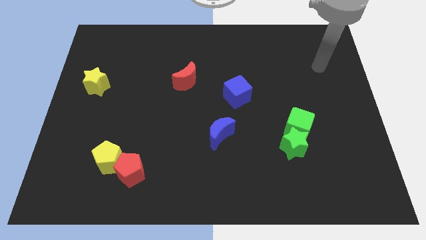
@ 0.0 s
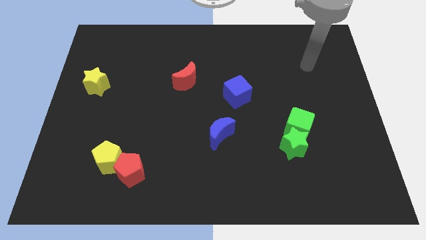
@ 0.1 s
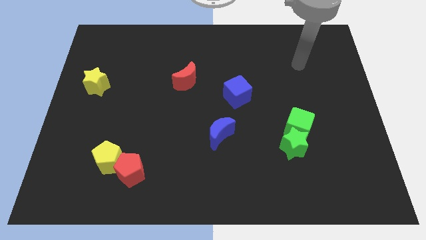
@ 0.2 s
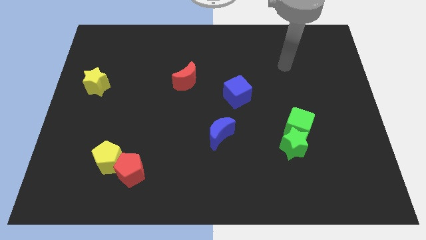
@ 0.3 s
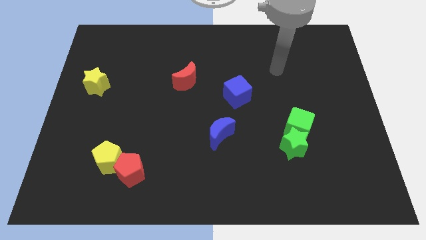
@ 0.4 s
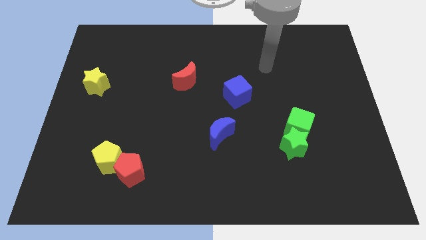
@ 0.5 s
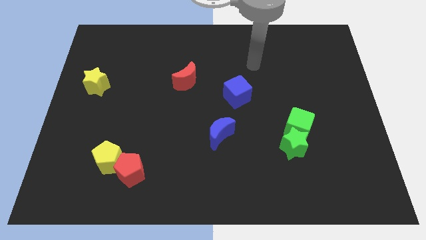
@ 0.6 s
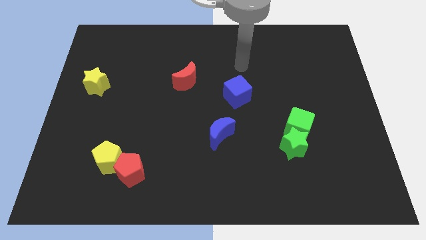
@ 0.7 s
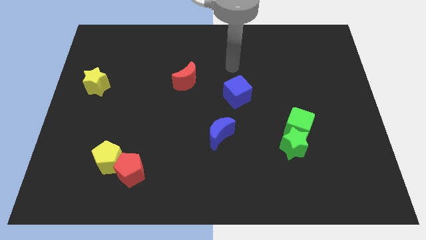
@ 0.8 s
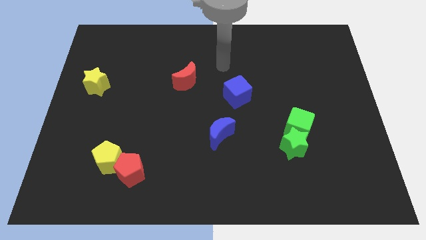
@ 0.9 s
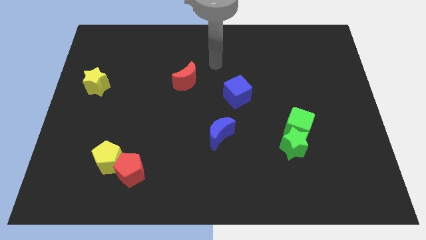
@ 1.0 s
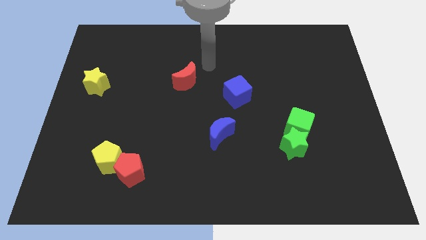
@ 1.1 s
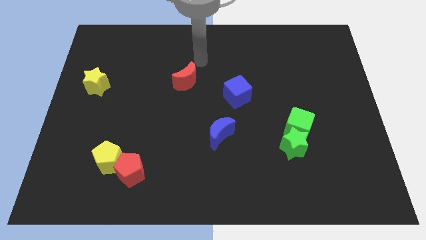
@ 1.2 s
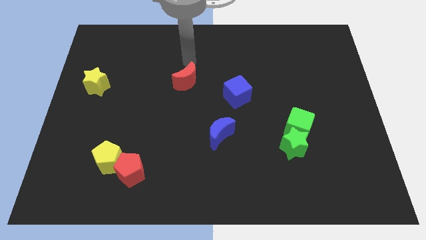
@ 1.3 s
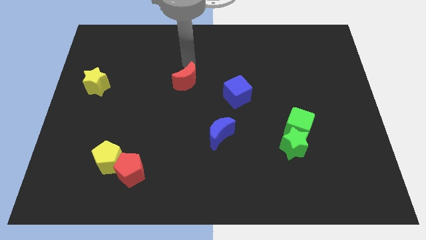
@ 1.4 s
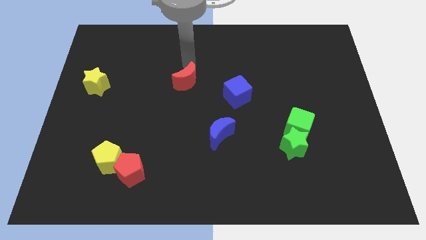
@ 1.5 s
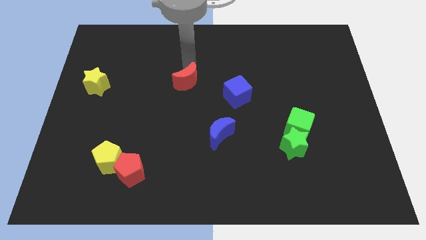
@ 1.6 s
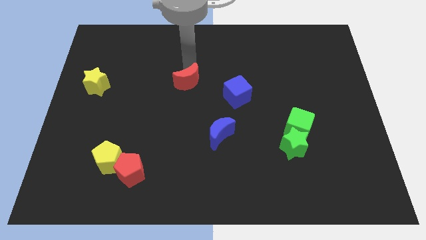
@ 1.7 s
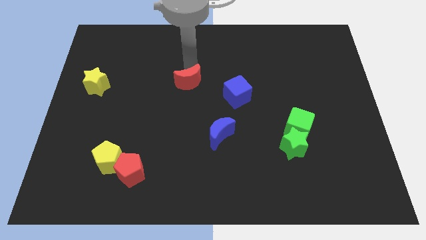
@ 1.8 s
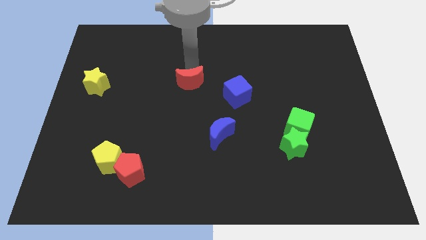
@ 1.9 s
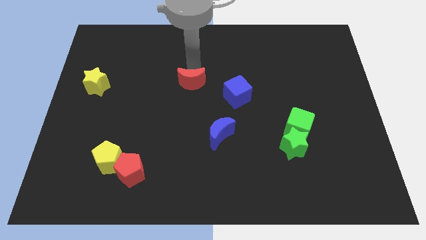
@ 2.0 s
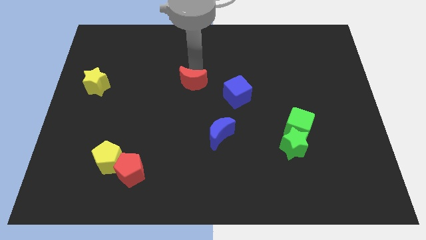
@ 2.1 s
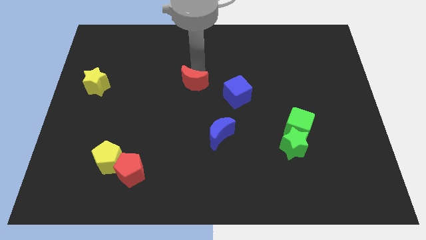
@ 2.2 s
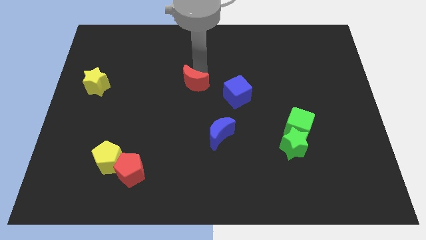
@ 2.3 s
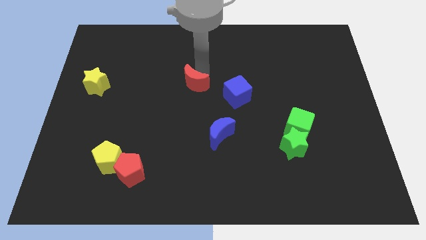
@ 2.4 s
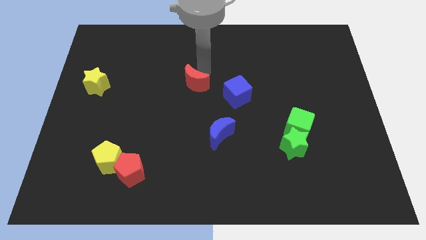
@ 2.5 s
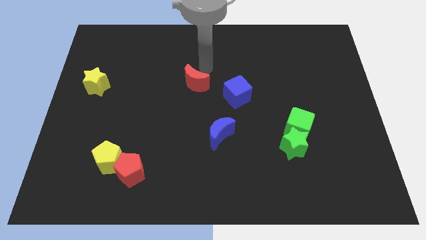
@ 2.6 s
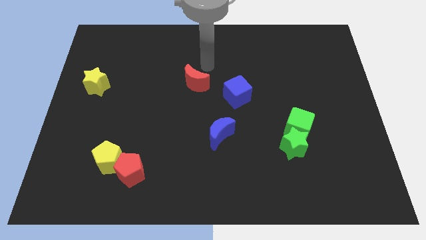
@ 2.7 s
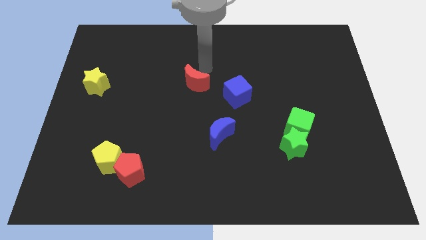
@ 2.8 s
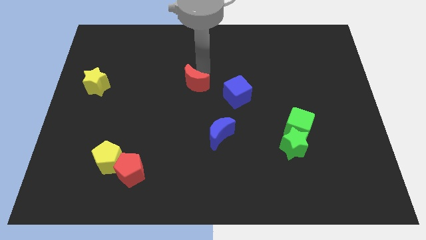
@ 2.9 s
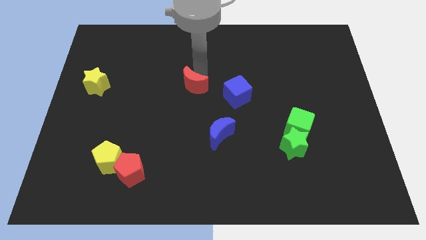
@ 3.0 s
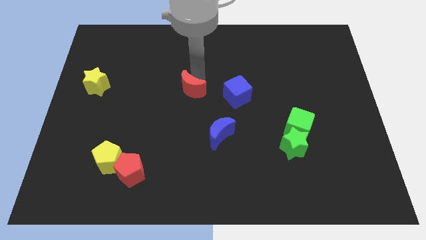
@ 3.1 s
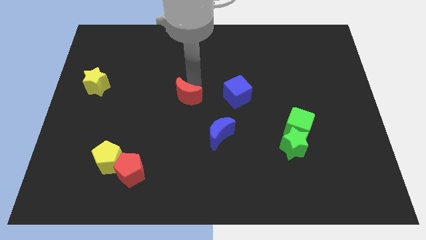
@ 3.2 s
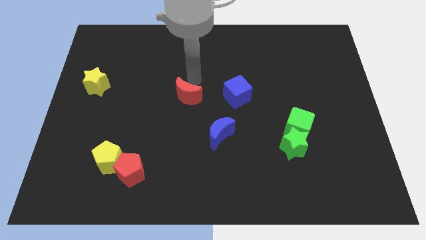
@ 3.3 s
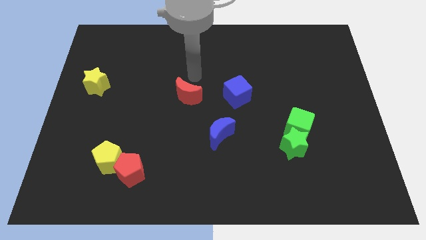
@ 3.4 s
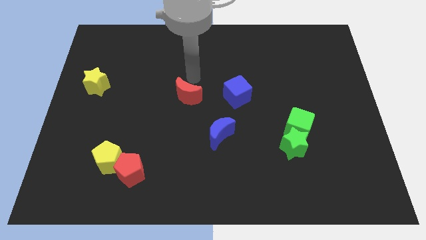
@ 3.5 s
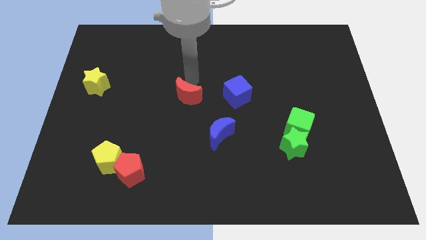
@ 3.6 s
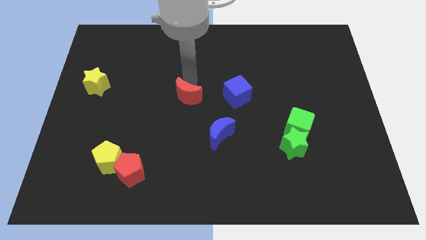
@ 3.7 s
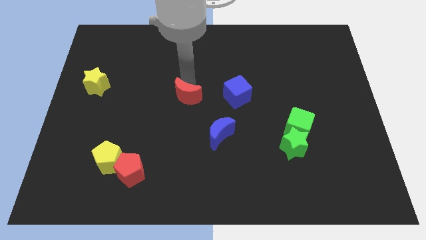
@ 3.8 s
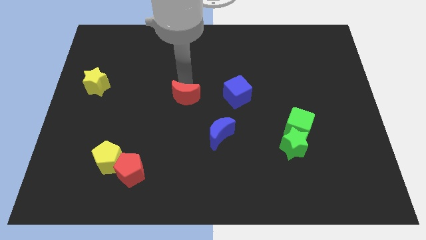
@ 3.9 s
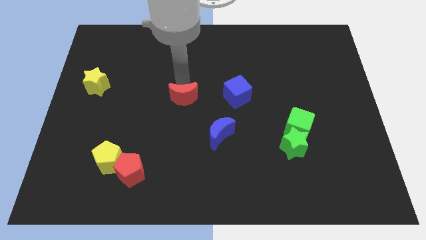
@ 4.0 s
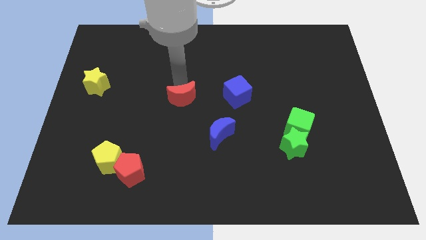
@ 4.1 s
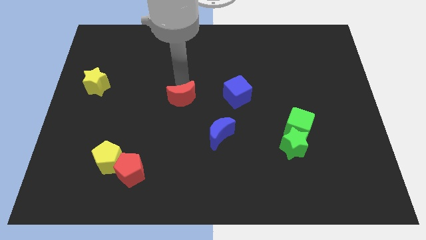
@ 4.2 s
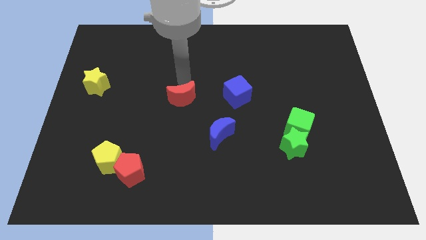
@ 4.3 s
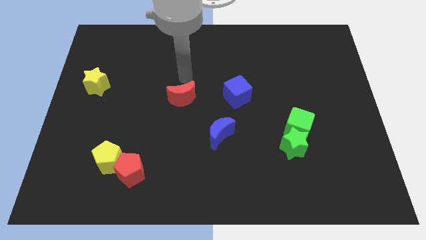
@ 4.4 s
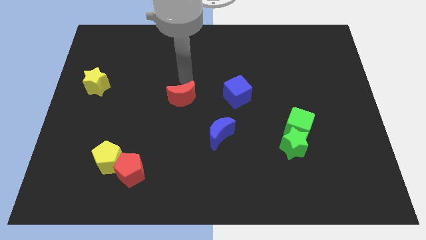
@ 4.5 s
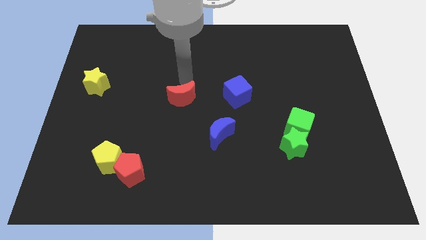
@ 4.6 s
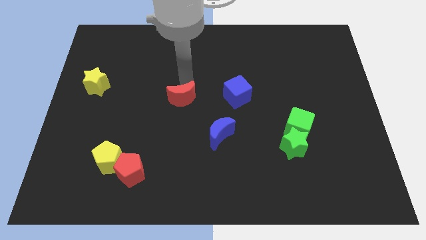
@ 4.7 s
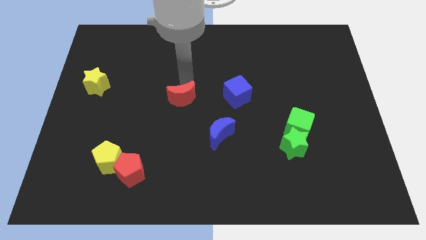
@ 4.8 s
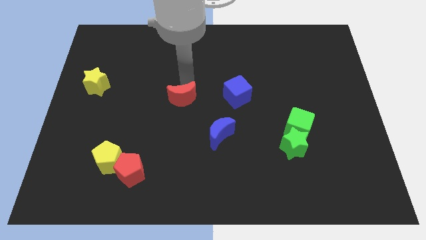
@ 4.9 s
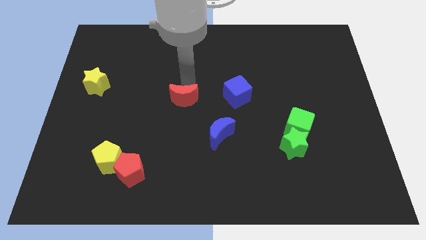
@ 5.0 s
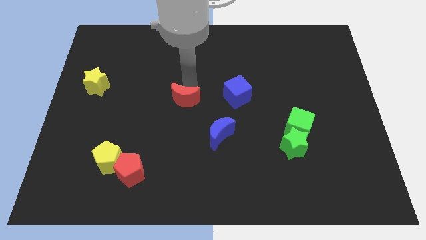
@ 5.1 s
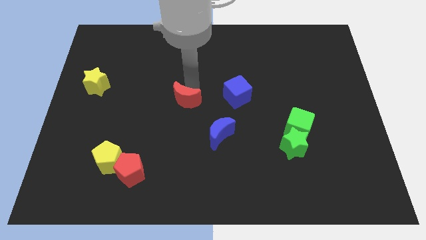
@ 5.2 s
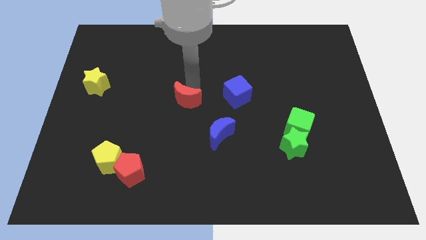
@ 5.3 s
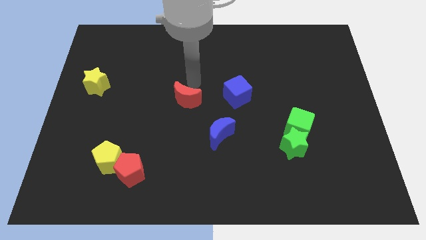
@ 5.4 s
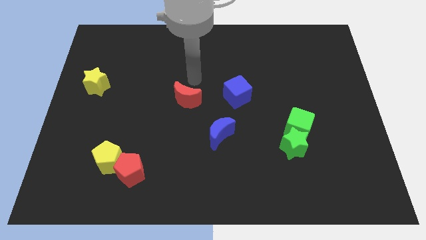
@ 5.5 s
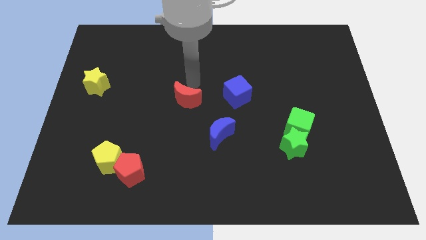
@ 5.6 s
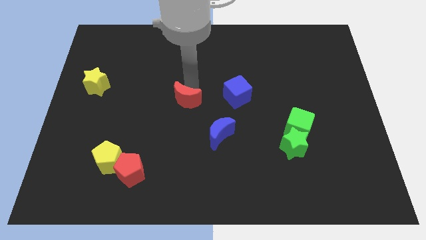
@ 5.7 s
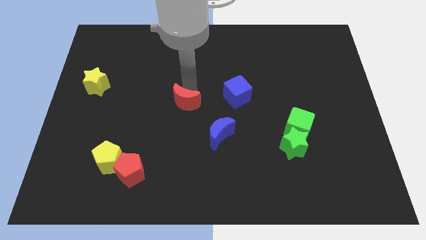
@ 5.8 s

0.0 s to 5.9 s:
slightly push the red moon downwards

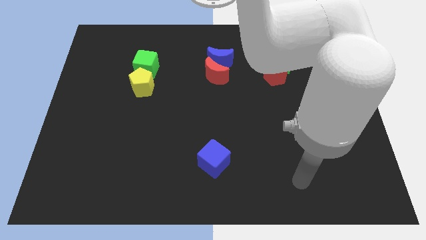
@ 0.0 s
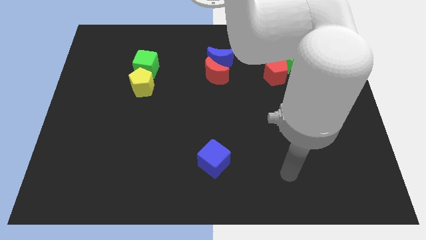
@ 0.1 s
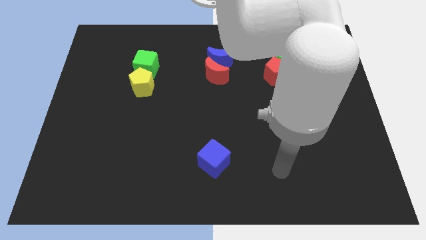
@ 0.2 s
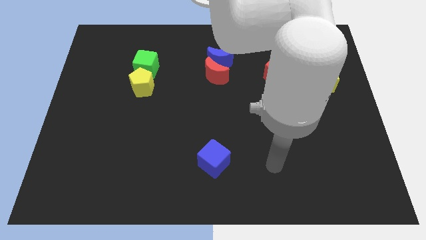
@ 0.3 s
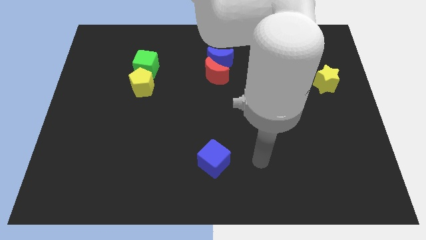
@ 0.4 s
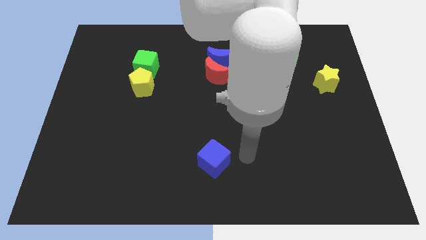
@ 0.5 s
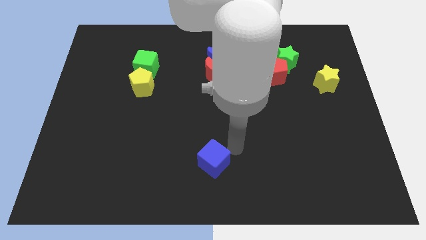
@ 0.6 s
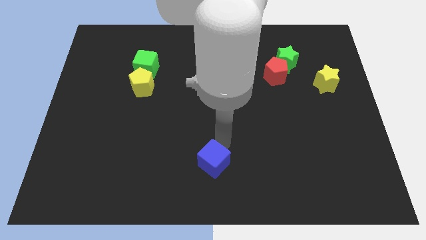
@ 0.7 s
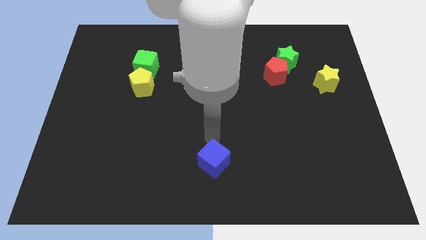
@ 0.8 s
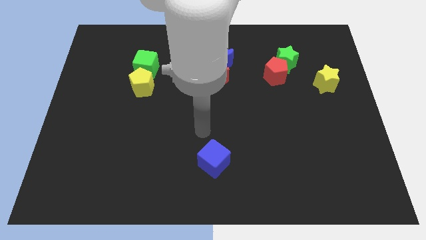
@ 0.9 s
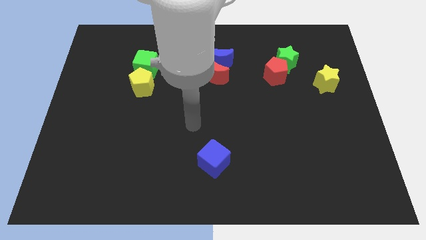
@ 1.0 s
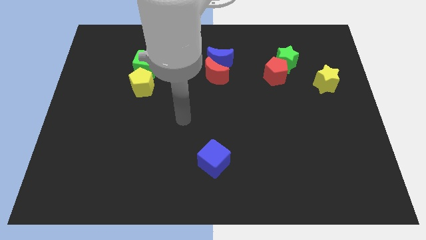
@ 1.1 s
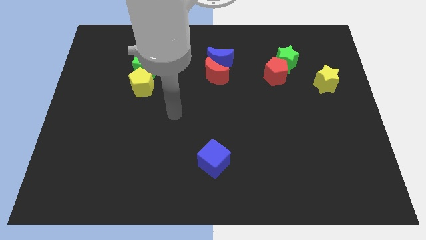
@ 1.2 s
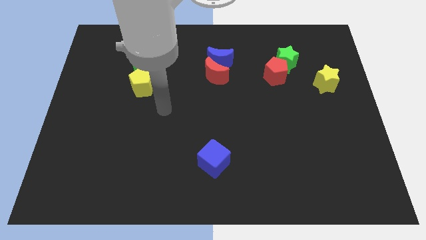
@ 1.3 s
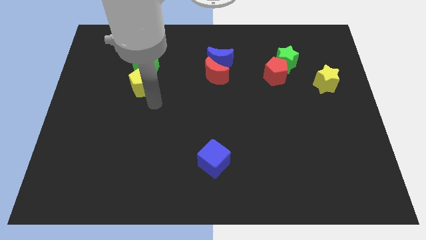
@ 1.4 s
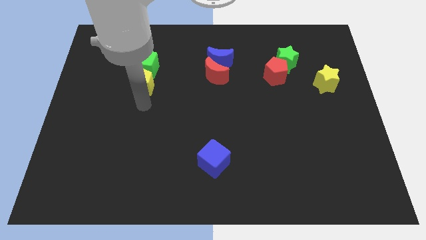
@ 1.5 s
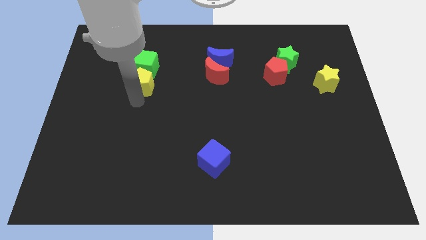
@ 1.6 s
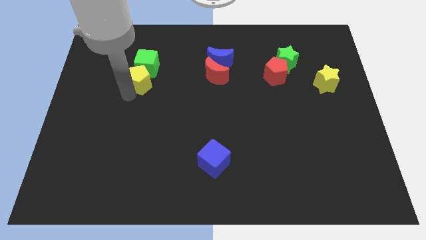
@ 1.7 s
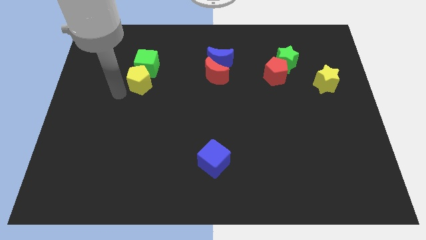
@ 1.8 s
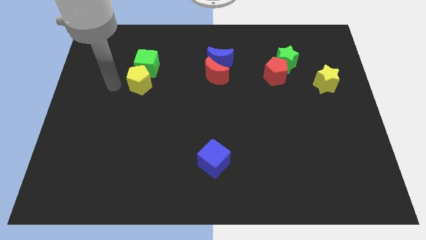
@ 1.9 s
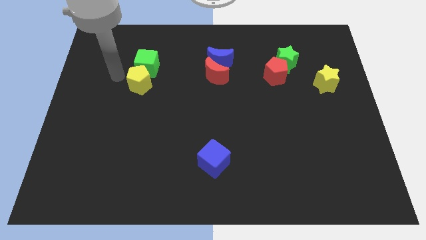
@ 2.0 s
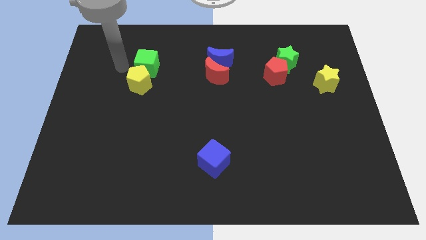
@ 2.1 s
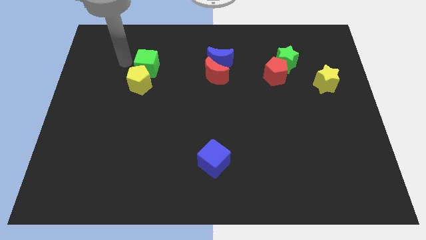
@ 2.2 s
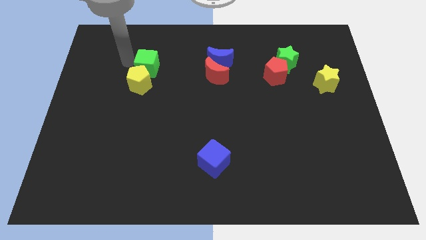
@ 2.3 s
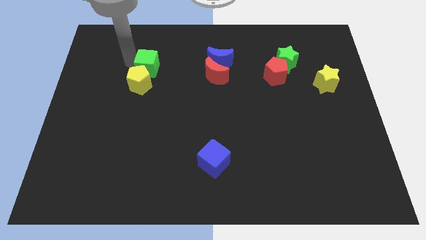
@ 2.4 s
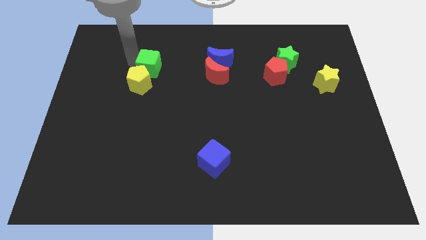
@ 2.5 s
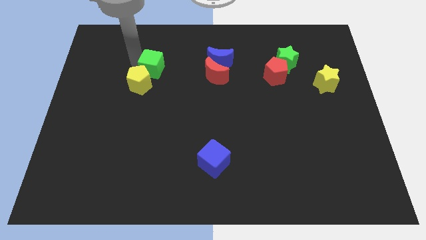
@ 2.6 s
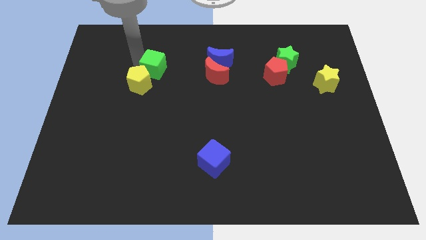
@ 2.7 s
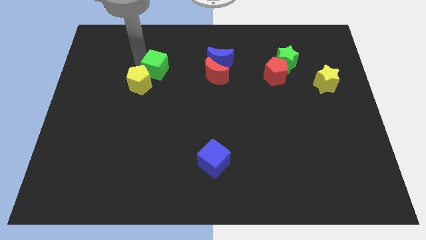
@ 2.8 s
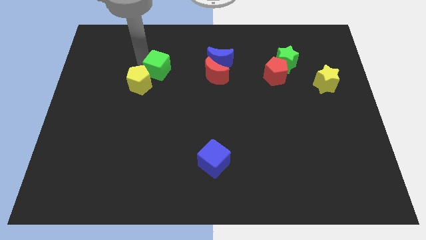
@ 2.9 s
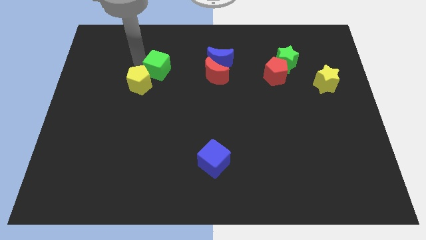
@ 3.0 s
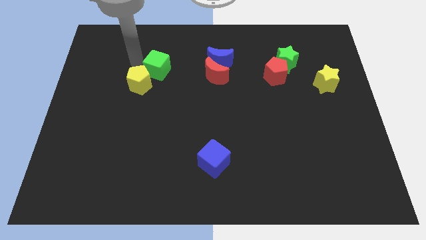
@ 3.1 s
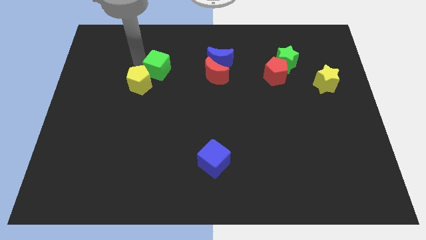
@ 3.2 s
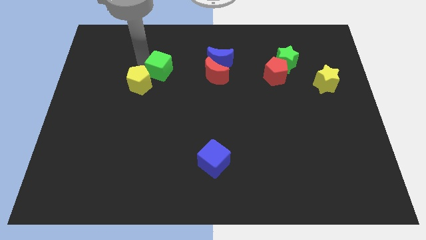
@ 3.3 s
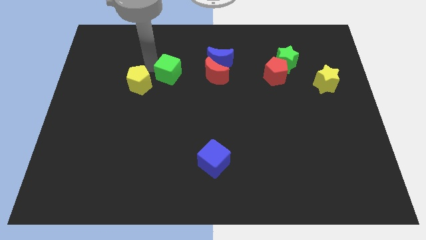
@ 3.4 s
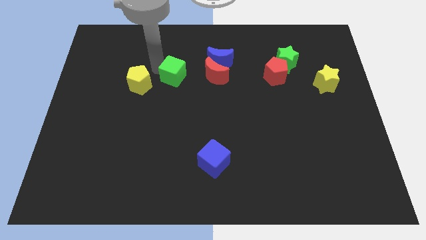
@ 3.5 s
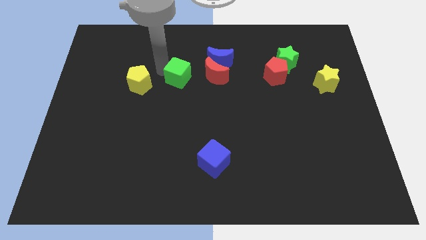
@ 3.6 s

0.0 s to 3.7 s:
slightly push the green cube downwards and to the right diagonally
